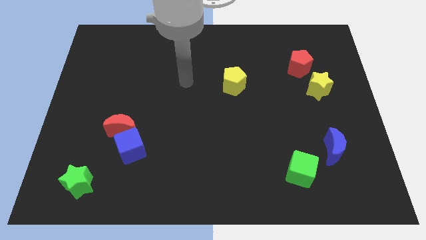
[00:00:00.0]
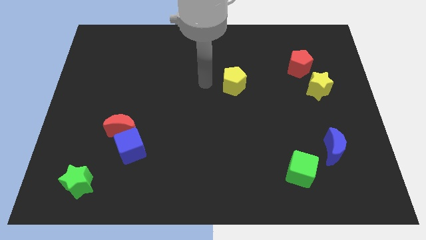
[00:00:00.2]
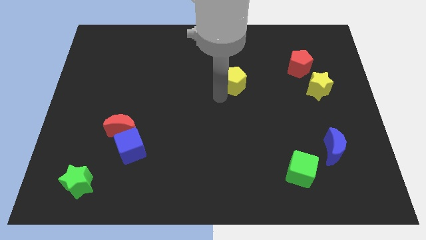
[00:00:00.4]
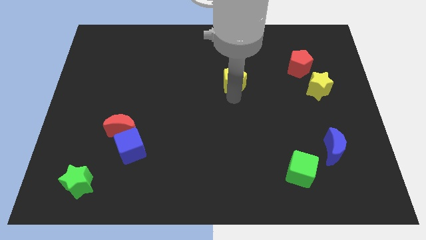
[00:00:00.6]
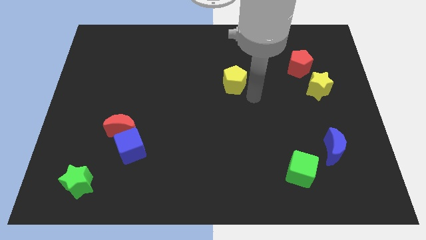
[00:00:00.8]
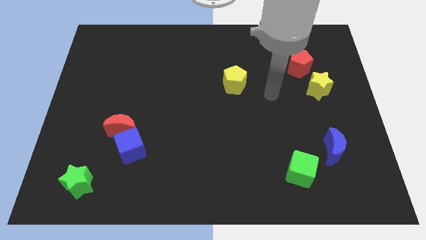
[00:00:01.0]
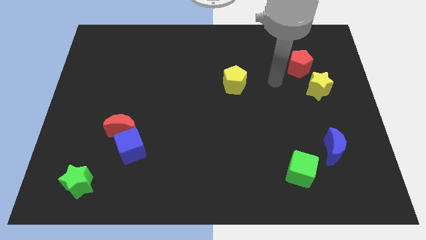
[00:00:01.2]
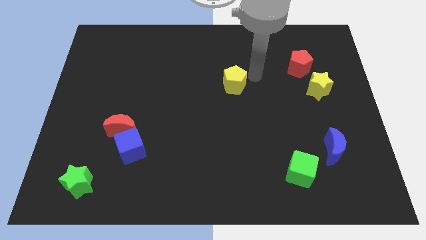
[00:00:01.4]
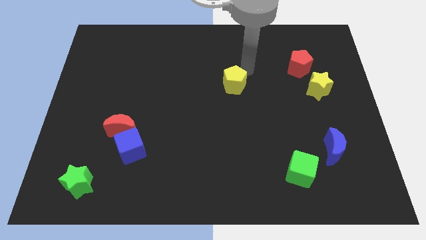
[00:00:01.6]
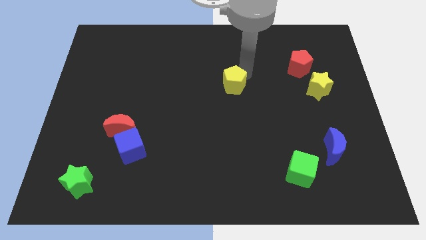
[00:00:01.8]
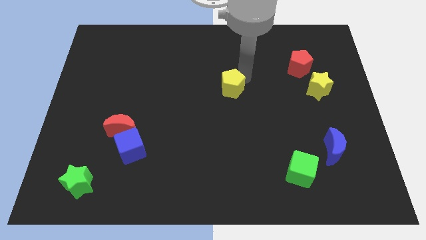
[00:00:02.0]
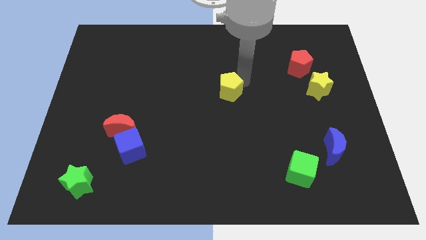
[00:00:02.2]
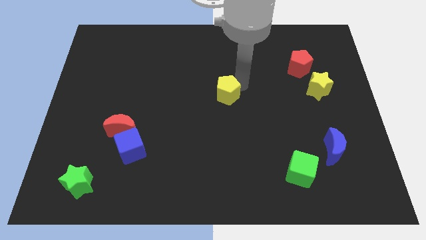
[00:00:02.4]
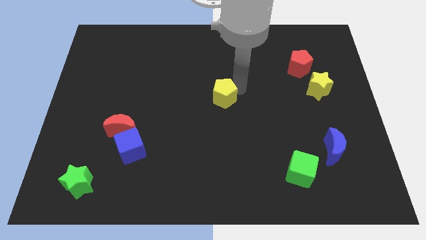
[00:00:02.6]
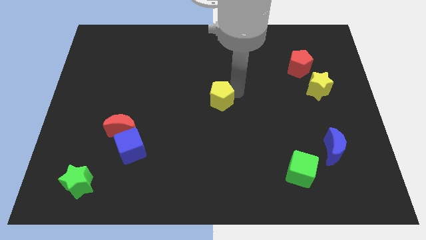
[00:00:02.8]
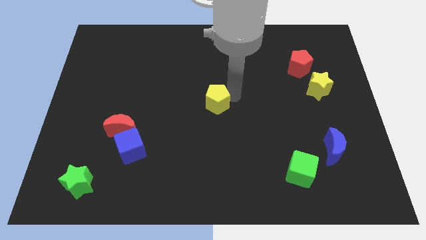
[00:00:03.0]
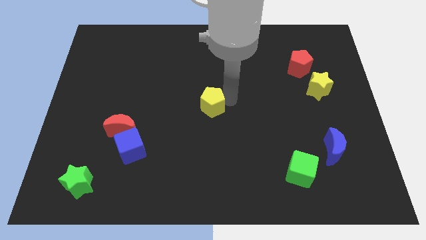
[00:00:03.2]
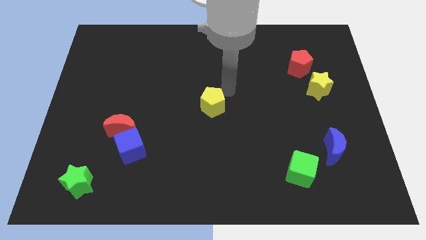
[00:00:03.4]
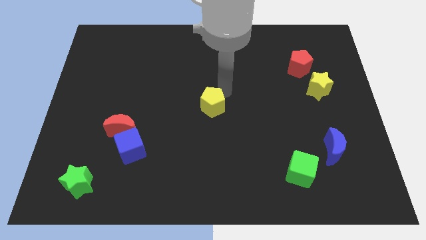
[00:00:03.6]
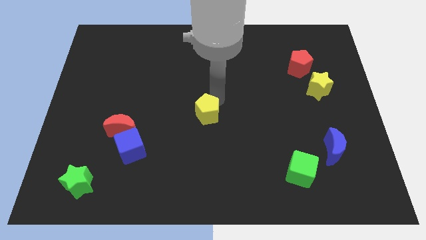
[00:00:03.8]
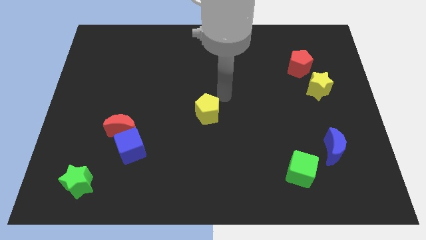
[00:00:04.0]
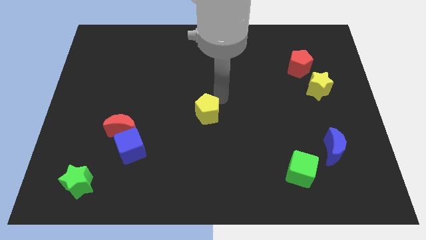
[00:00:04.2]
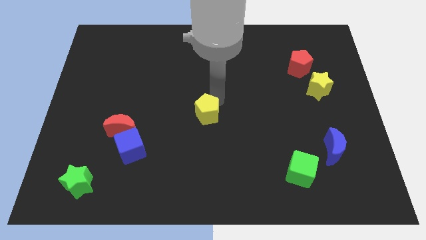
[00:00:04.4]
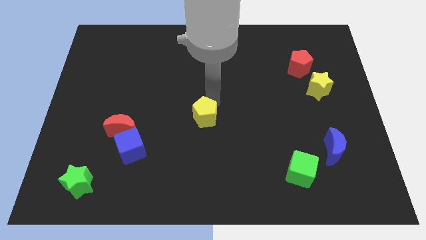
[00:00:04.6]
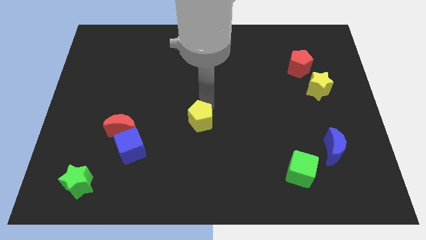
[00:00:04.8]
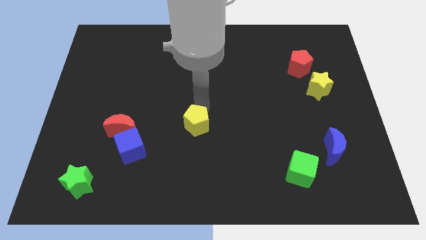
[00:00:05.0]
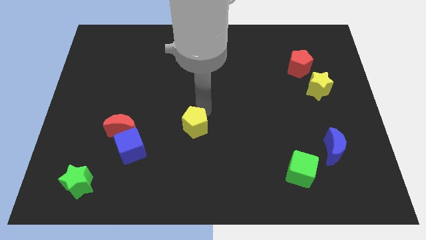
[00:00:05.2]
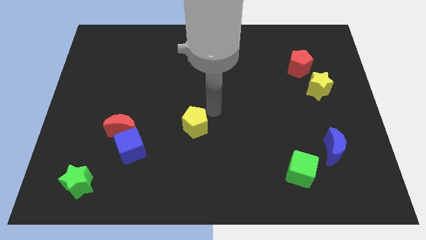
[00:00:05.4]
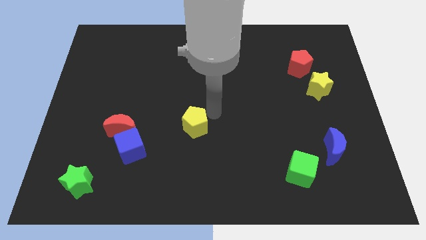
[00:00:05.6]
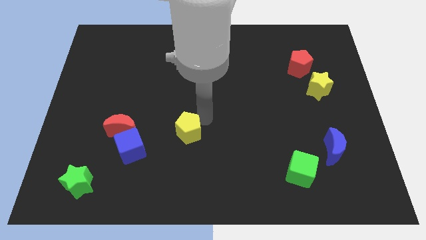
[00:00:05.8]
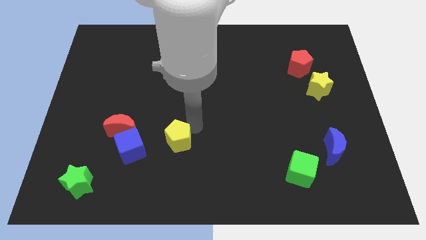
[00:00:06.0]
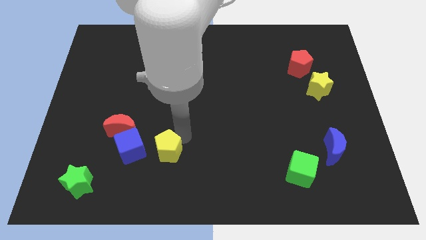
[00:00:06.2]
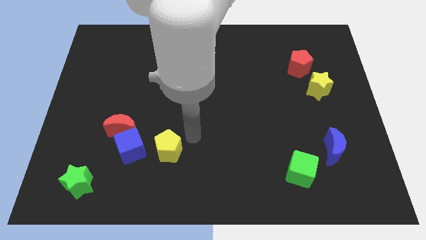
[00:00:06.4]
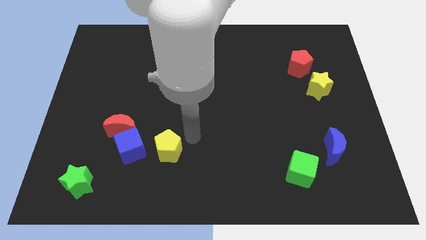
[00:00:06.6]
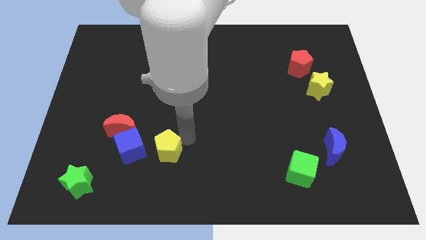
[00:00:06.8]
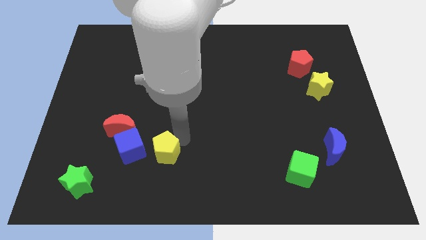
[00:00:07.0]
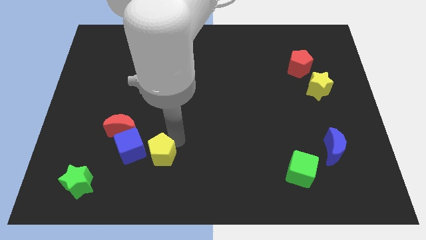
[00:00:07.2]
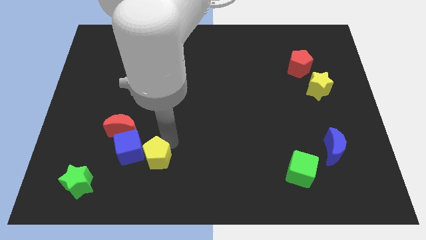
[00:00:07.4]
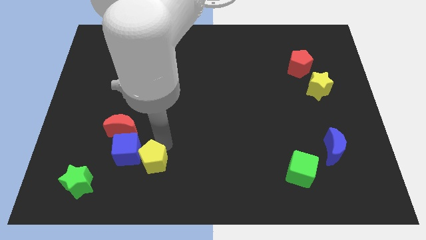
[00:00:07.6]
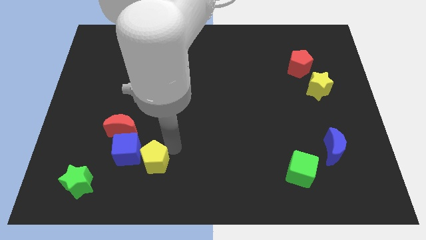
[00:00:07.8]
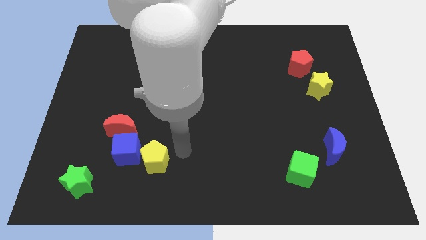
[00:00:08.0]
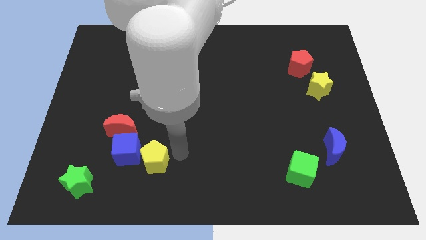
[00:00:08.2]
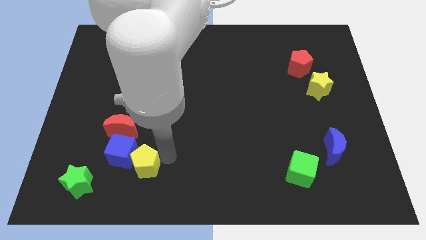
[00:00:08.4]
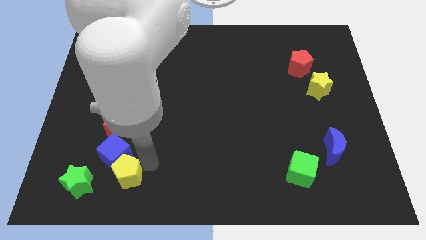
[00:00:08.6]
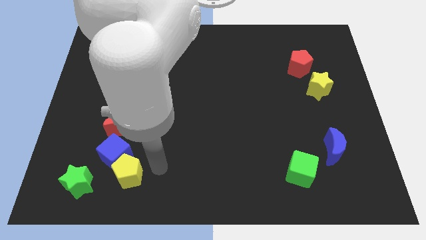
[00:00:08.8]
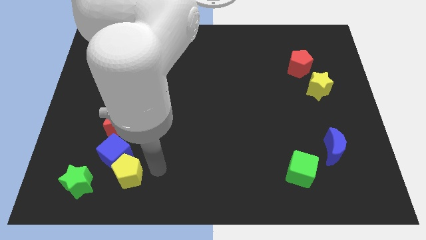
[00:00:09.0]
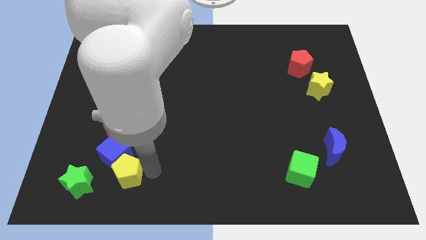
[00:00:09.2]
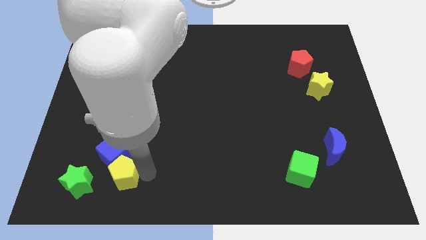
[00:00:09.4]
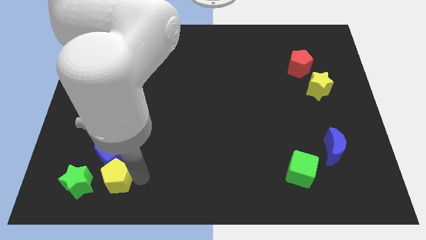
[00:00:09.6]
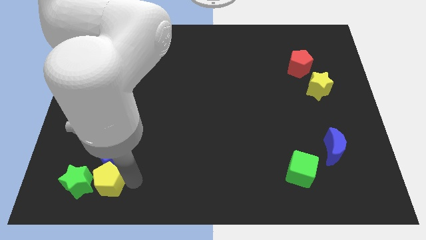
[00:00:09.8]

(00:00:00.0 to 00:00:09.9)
put the yellow pentagon to the green star

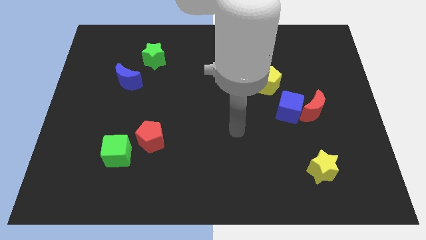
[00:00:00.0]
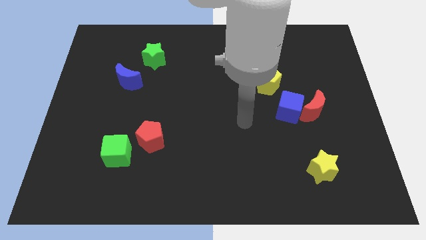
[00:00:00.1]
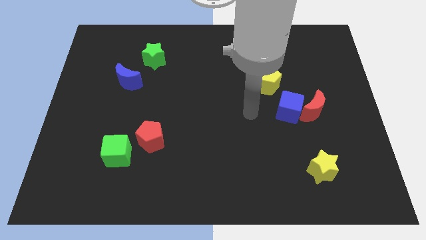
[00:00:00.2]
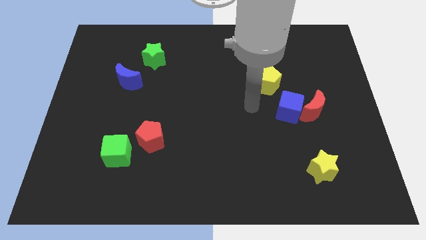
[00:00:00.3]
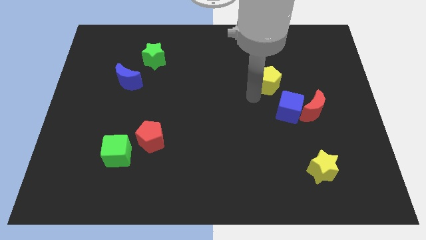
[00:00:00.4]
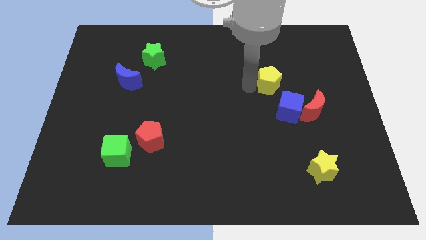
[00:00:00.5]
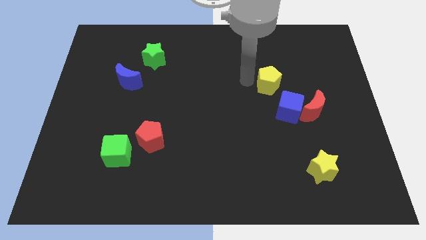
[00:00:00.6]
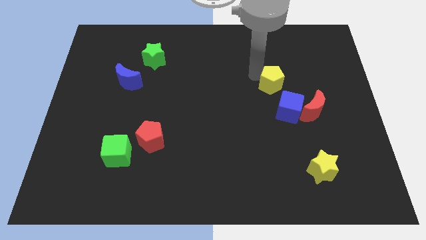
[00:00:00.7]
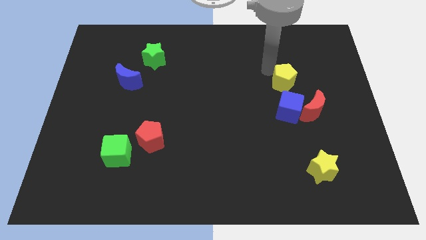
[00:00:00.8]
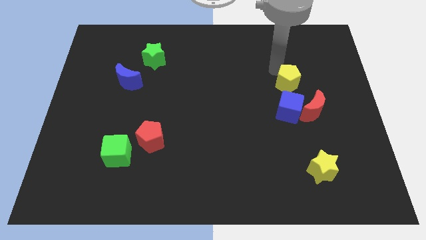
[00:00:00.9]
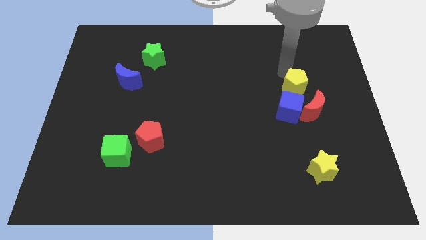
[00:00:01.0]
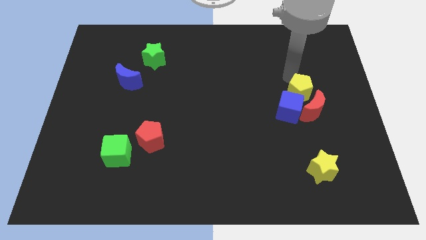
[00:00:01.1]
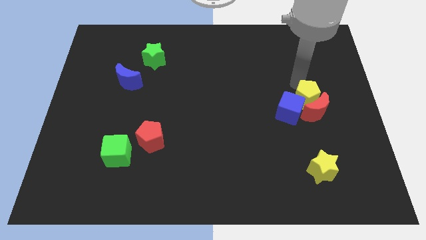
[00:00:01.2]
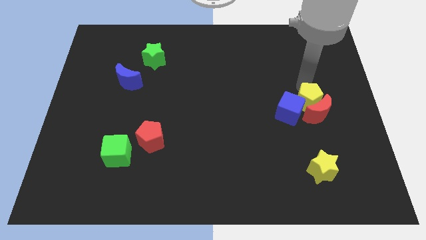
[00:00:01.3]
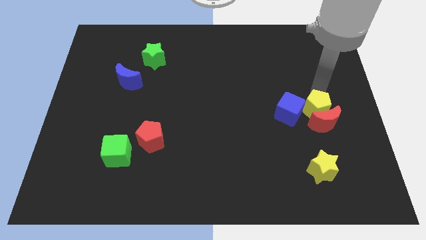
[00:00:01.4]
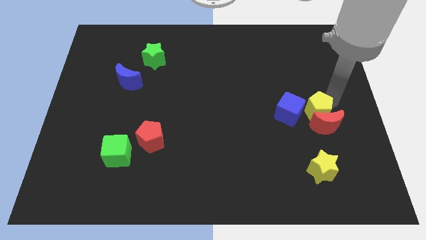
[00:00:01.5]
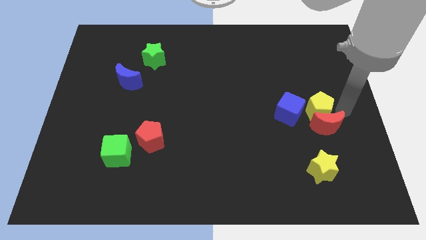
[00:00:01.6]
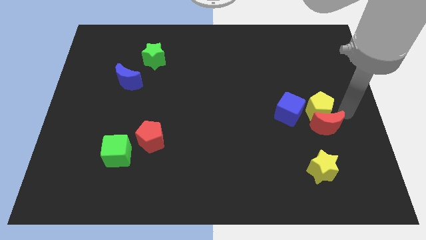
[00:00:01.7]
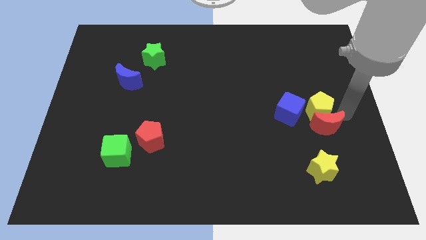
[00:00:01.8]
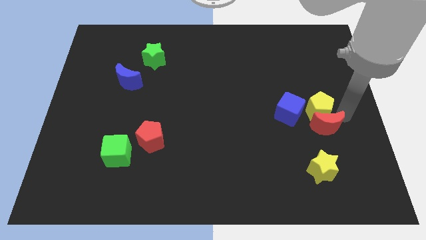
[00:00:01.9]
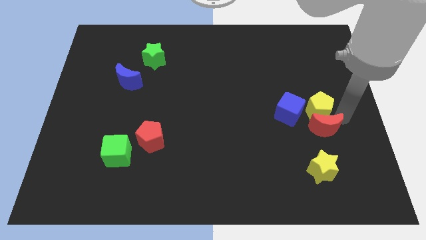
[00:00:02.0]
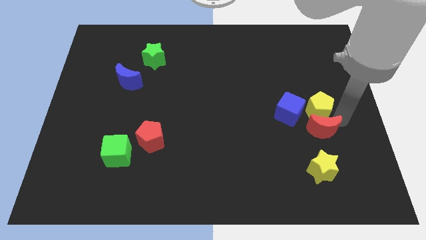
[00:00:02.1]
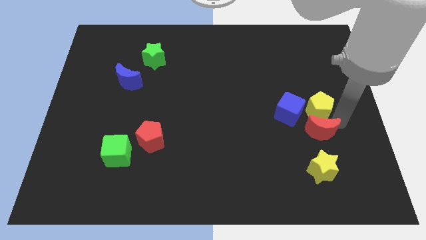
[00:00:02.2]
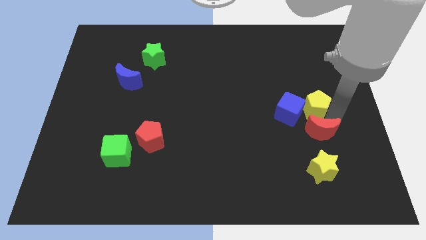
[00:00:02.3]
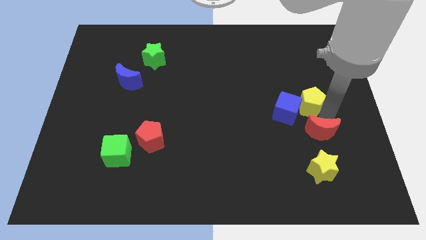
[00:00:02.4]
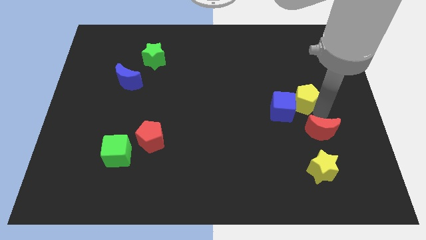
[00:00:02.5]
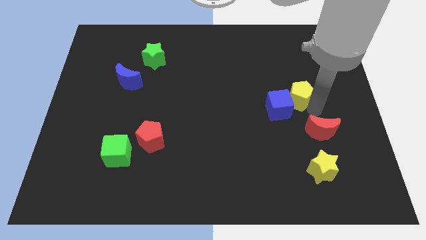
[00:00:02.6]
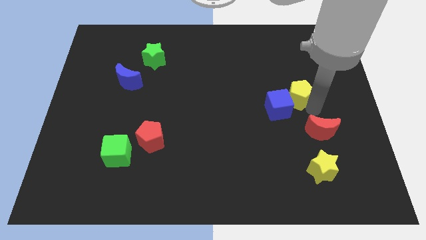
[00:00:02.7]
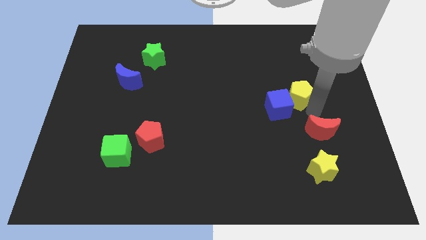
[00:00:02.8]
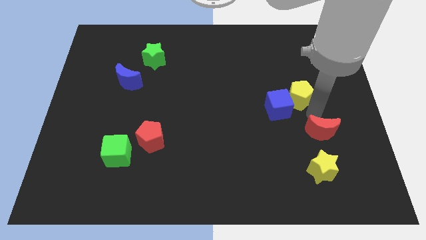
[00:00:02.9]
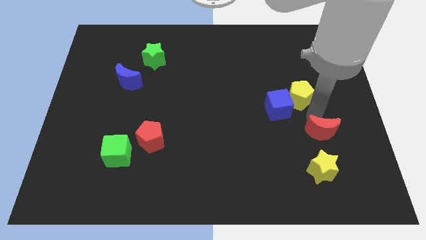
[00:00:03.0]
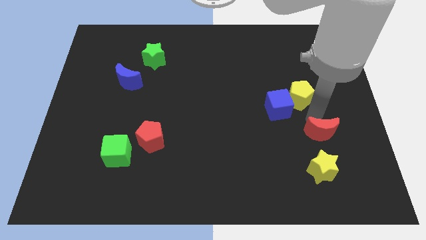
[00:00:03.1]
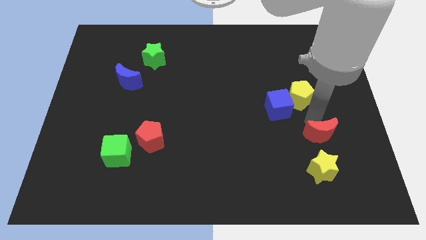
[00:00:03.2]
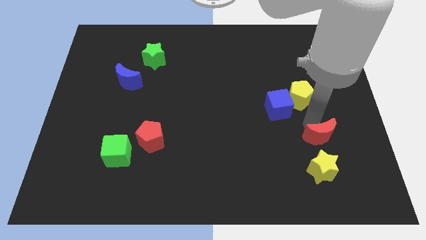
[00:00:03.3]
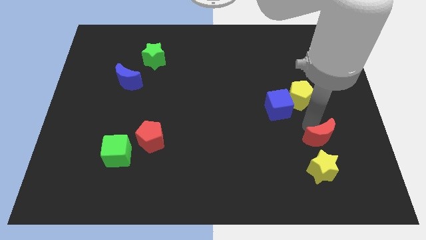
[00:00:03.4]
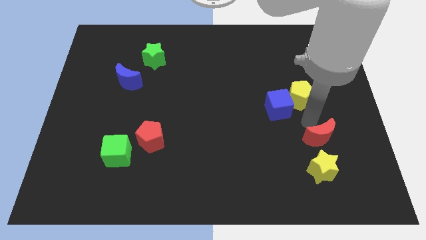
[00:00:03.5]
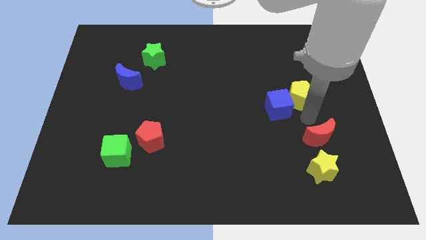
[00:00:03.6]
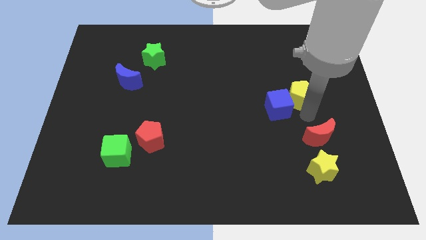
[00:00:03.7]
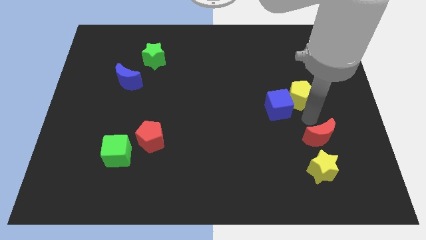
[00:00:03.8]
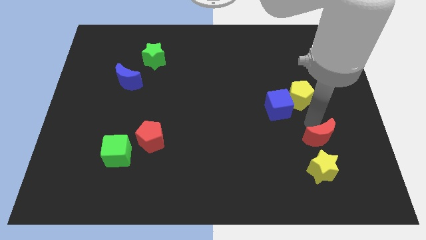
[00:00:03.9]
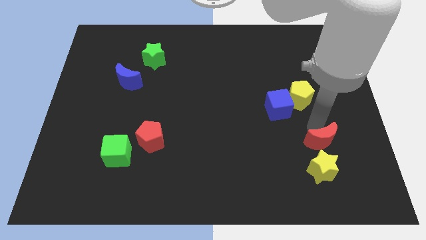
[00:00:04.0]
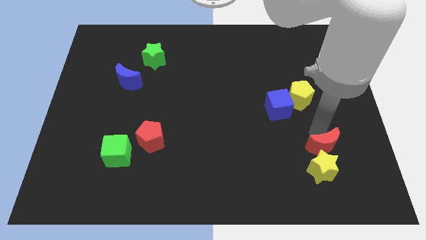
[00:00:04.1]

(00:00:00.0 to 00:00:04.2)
slide the red moon to the yellow star
